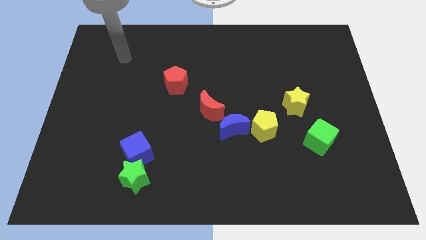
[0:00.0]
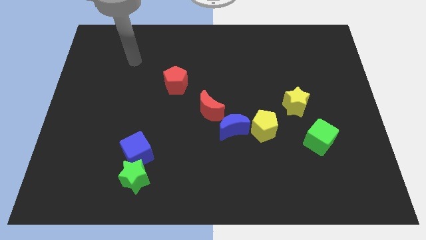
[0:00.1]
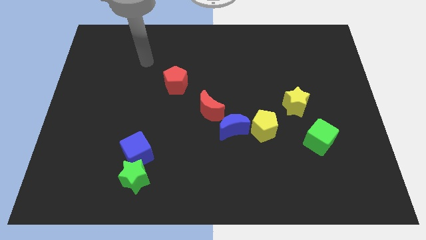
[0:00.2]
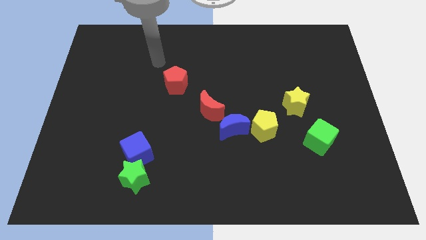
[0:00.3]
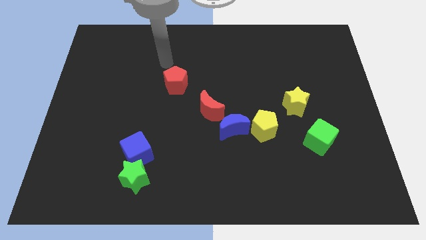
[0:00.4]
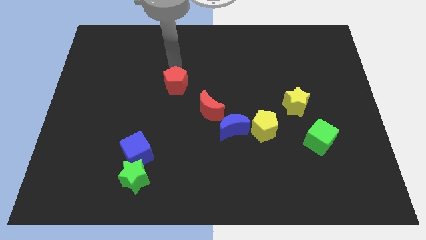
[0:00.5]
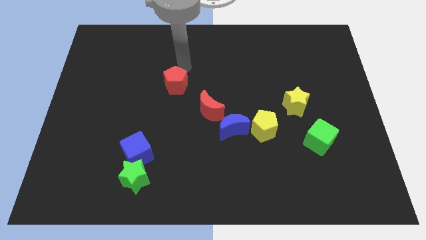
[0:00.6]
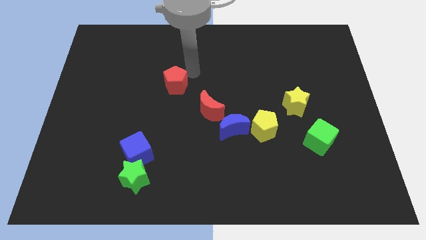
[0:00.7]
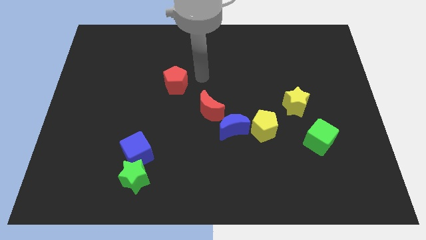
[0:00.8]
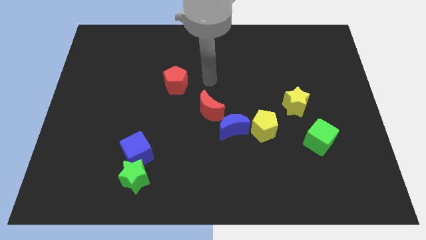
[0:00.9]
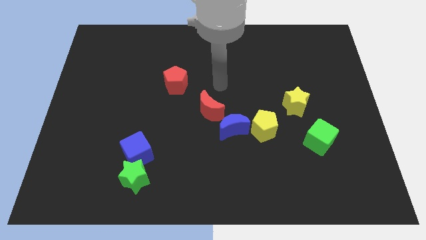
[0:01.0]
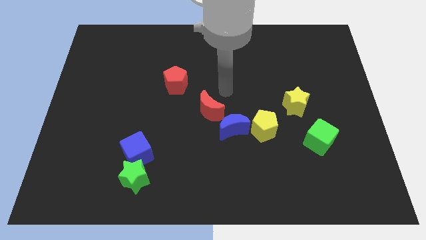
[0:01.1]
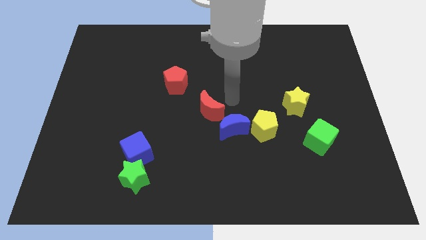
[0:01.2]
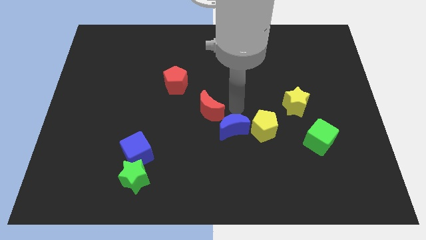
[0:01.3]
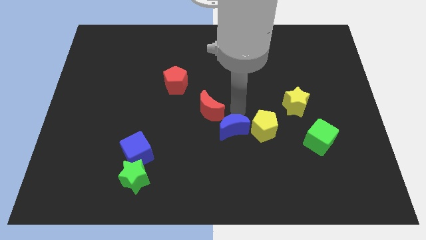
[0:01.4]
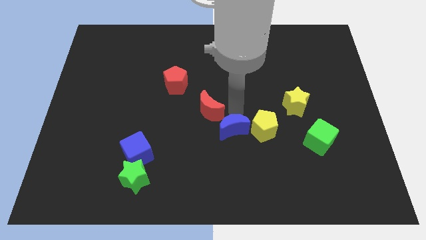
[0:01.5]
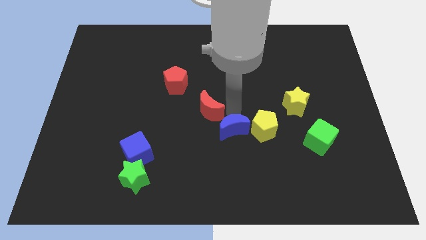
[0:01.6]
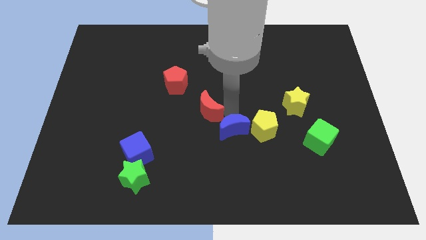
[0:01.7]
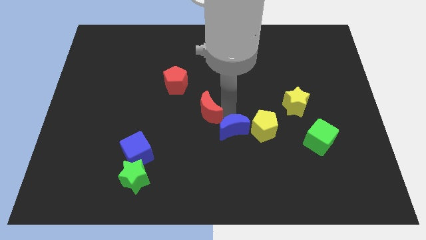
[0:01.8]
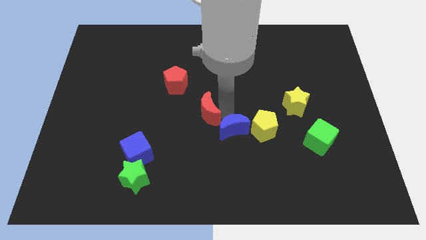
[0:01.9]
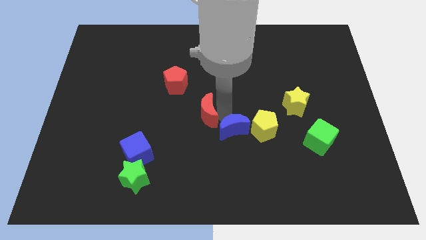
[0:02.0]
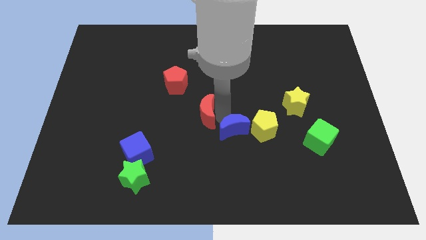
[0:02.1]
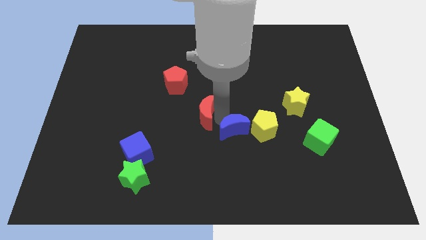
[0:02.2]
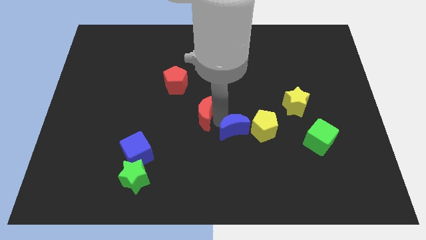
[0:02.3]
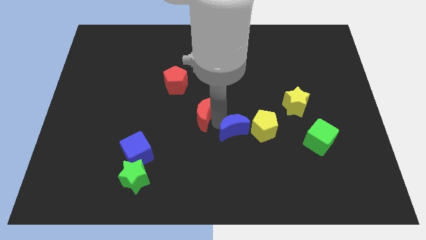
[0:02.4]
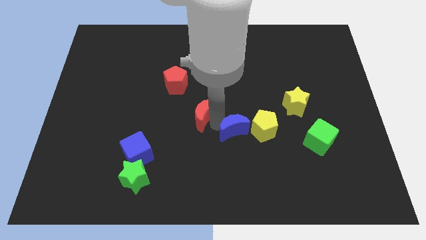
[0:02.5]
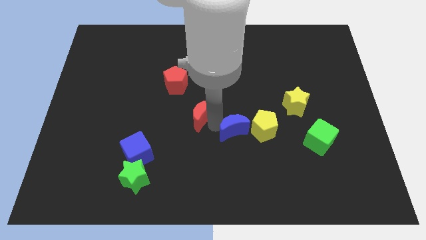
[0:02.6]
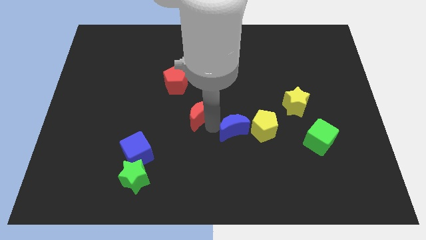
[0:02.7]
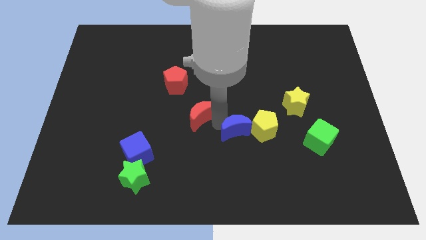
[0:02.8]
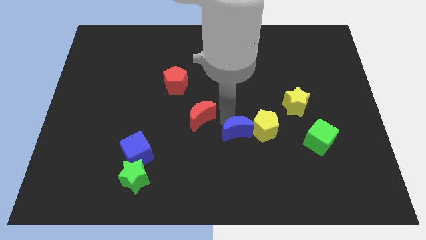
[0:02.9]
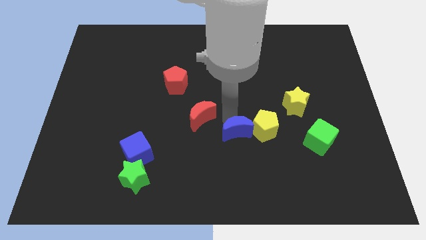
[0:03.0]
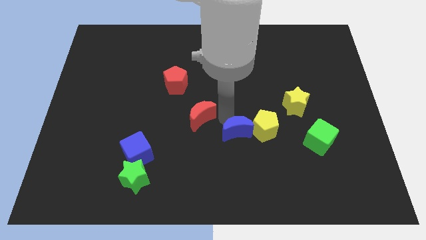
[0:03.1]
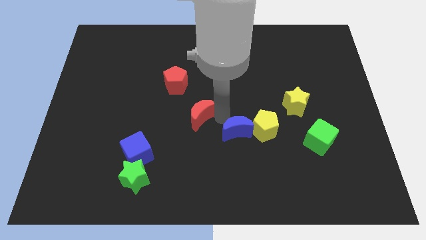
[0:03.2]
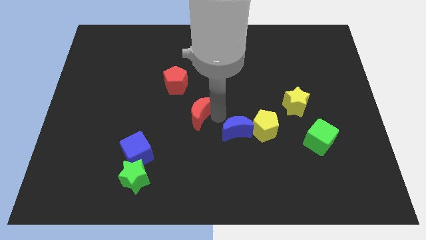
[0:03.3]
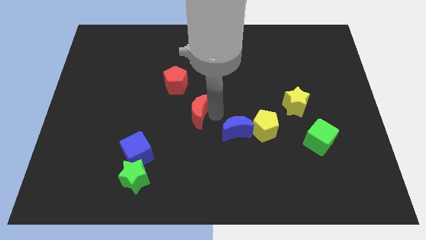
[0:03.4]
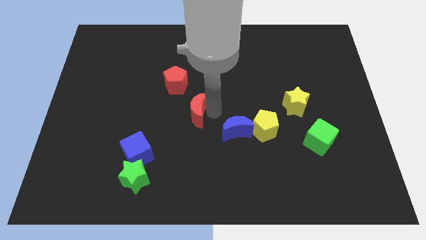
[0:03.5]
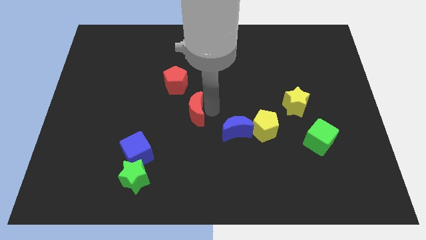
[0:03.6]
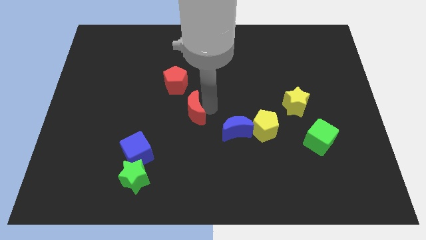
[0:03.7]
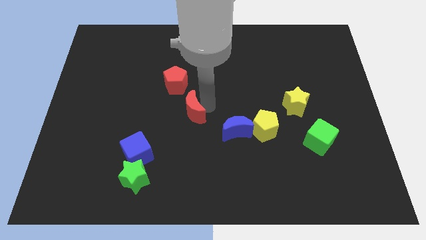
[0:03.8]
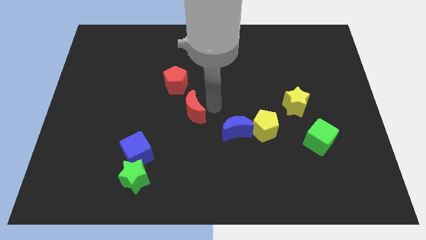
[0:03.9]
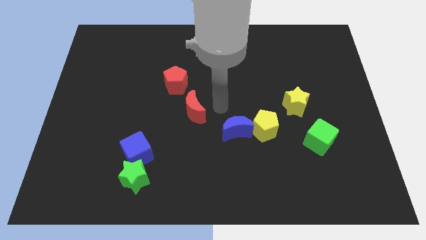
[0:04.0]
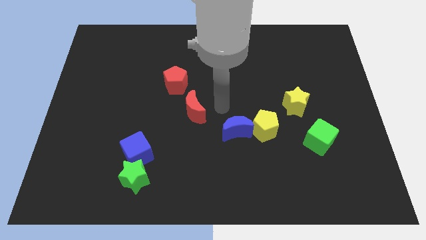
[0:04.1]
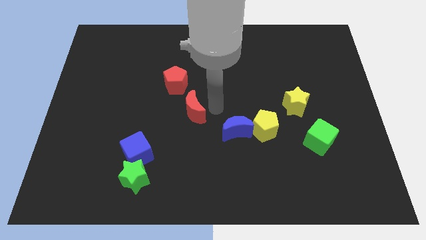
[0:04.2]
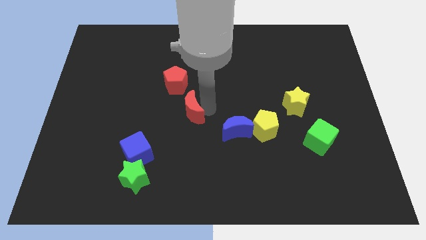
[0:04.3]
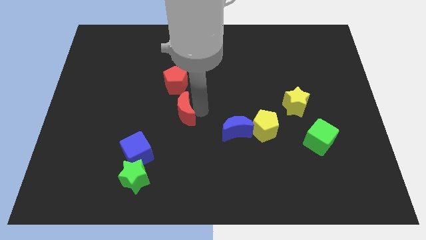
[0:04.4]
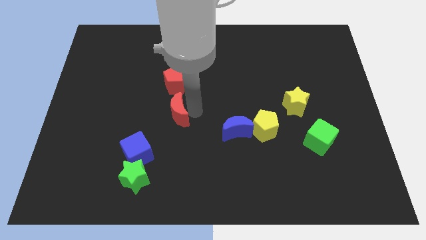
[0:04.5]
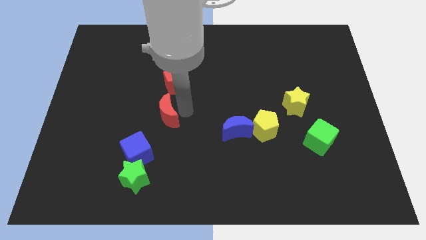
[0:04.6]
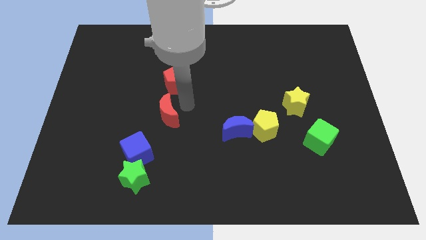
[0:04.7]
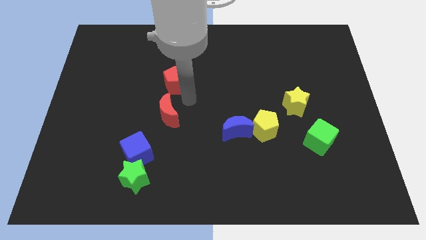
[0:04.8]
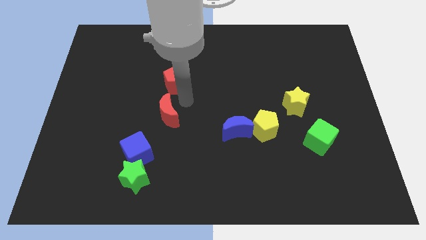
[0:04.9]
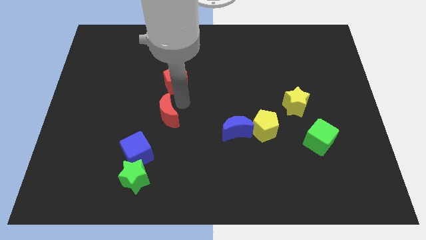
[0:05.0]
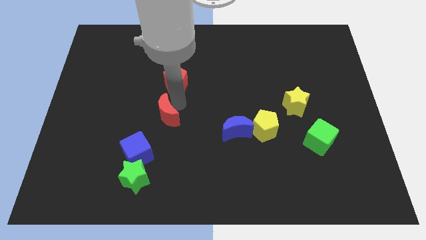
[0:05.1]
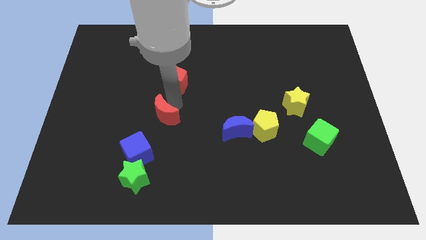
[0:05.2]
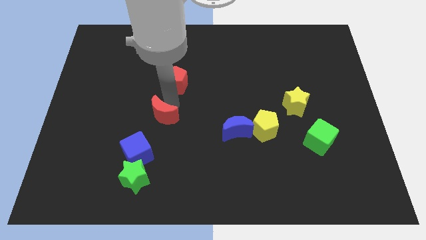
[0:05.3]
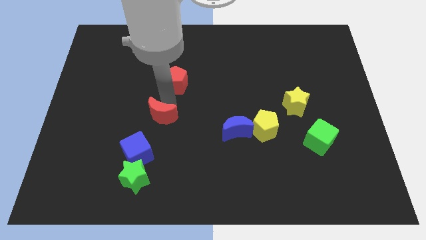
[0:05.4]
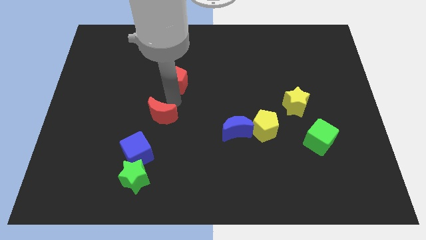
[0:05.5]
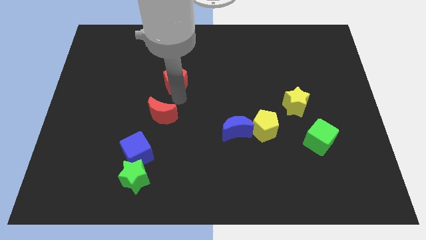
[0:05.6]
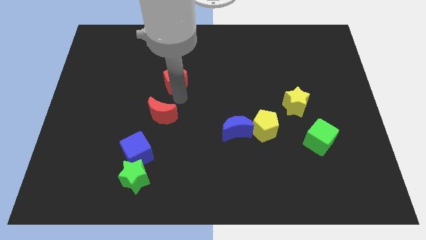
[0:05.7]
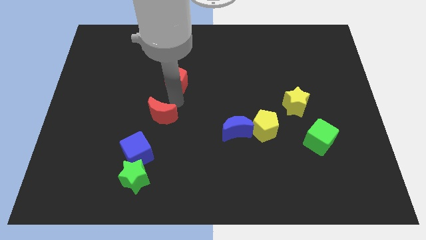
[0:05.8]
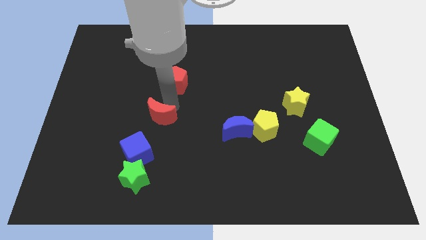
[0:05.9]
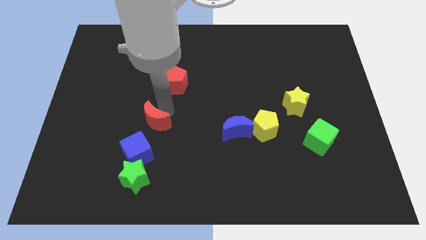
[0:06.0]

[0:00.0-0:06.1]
move the red moon above the green star
